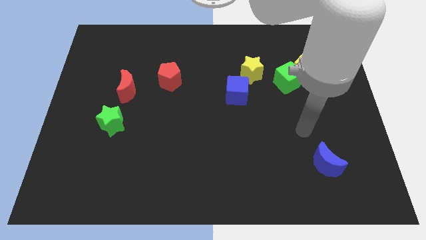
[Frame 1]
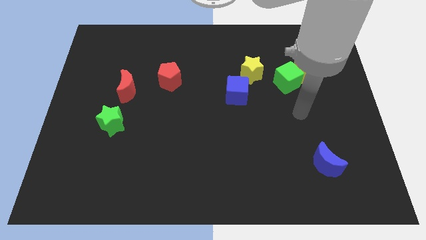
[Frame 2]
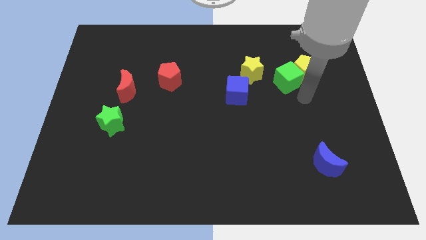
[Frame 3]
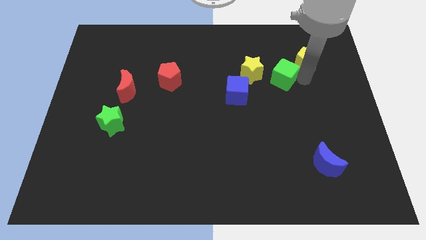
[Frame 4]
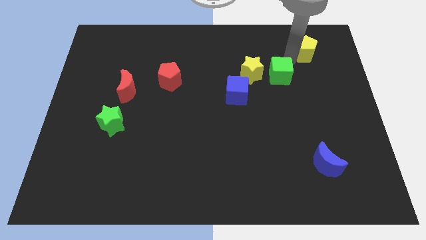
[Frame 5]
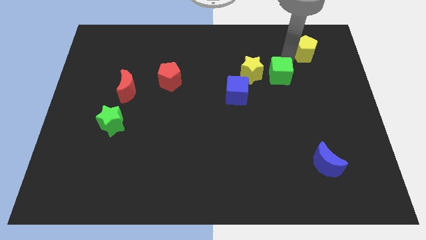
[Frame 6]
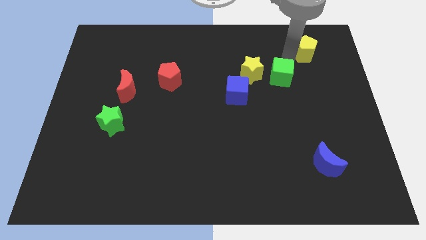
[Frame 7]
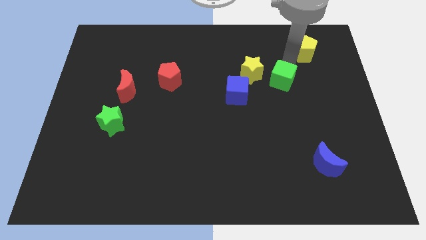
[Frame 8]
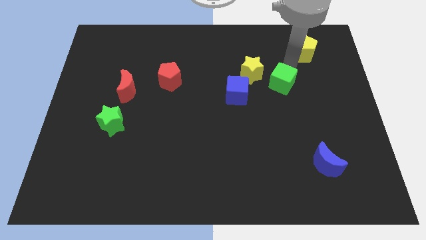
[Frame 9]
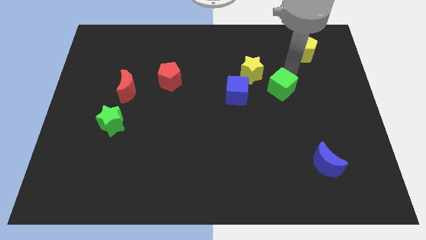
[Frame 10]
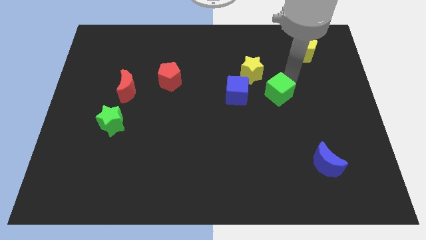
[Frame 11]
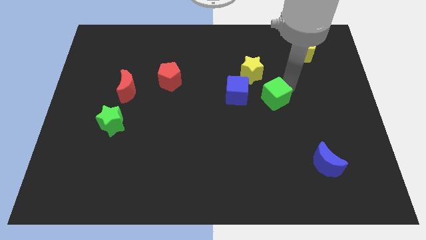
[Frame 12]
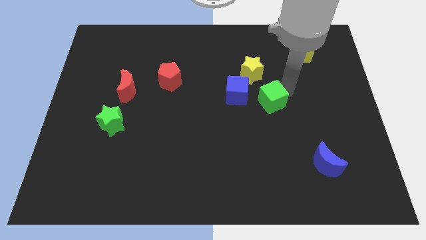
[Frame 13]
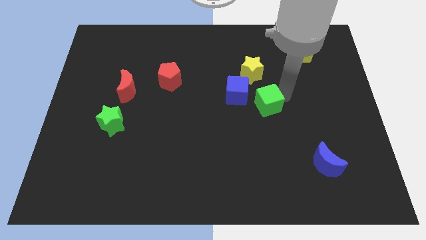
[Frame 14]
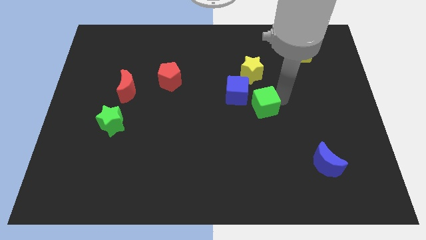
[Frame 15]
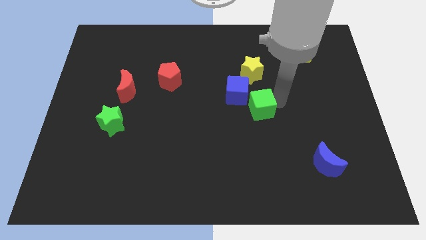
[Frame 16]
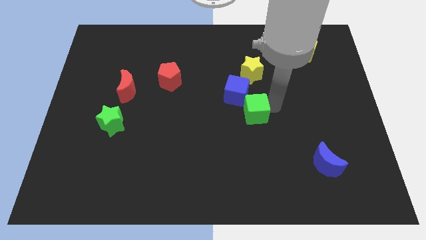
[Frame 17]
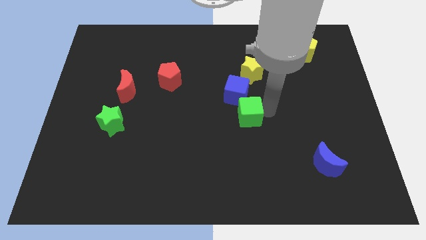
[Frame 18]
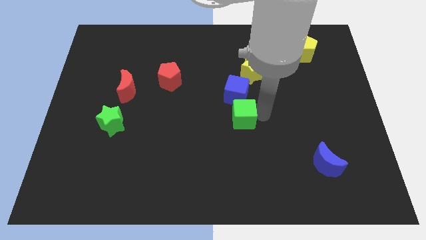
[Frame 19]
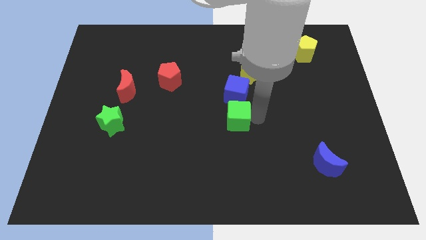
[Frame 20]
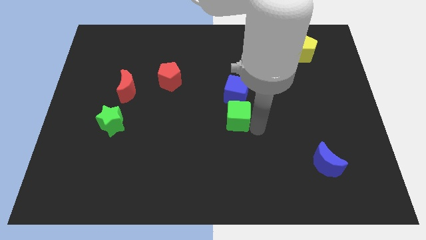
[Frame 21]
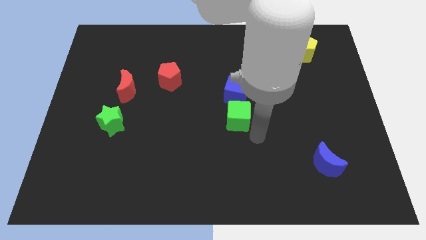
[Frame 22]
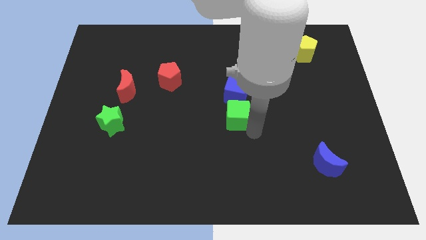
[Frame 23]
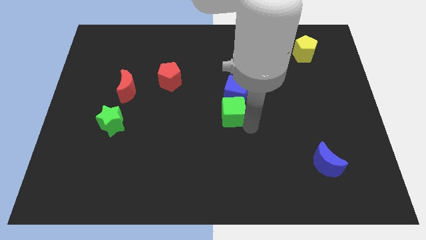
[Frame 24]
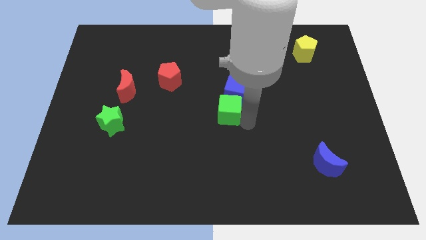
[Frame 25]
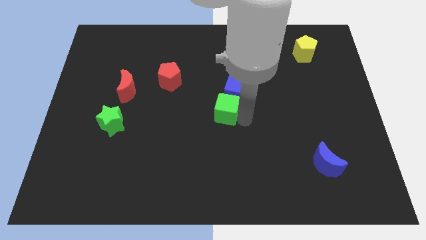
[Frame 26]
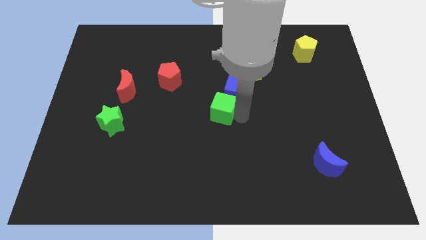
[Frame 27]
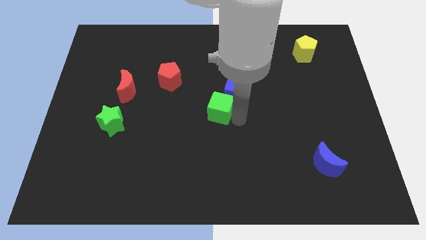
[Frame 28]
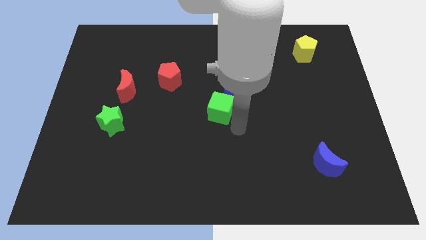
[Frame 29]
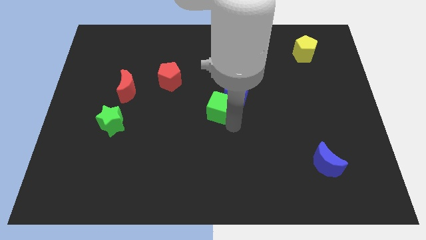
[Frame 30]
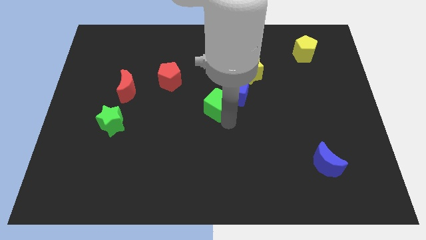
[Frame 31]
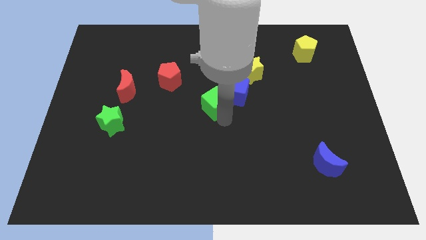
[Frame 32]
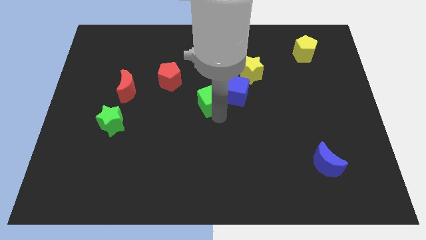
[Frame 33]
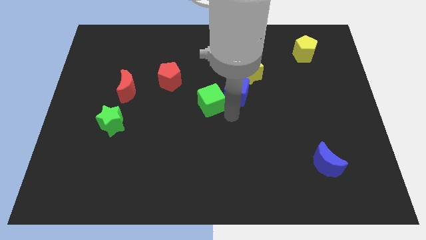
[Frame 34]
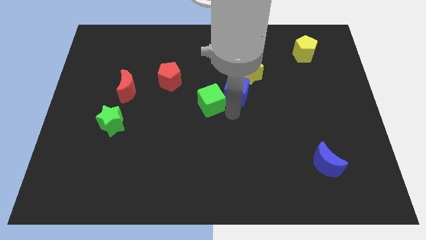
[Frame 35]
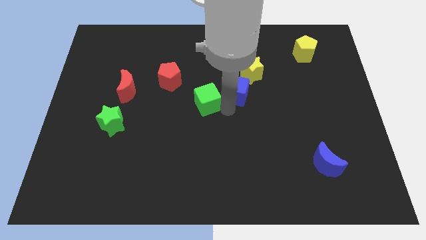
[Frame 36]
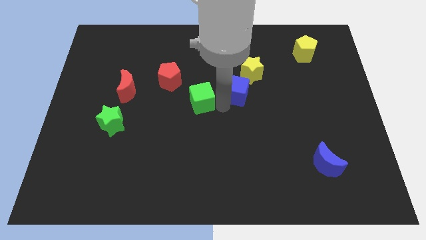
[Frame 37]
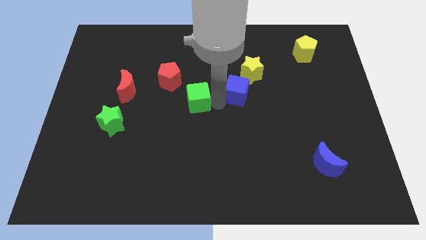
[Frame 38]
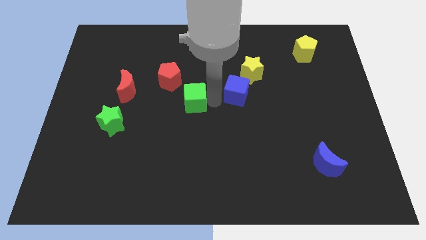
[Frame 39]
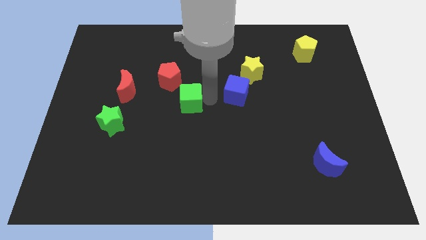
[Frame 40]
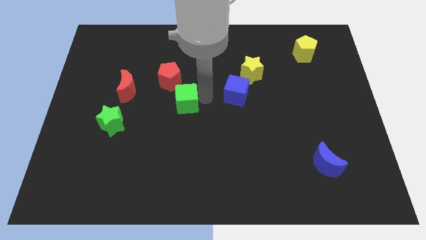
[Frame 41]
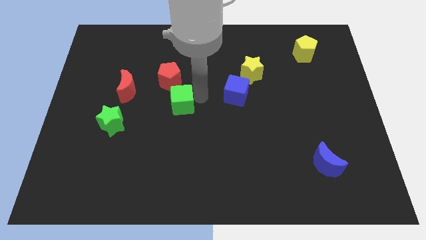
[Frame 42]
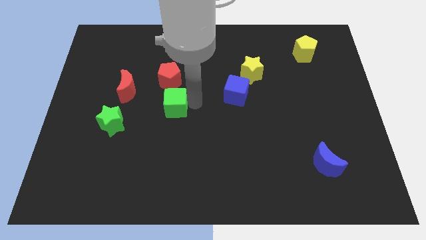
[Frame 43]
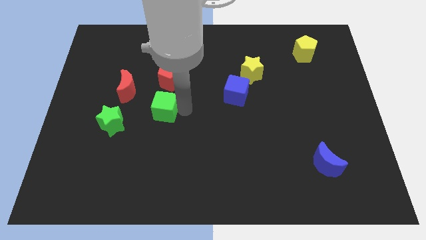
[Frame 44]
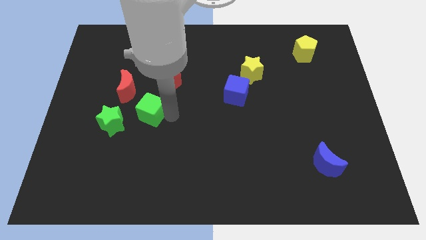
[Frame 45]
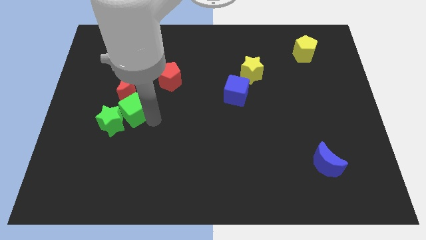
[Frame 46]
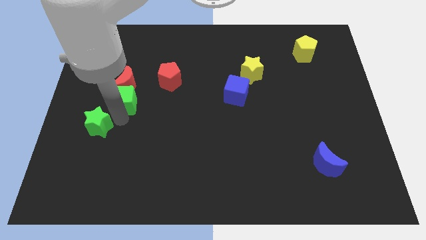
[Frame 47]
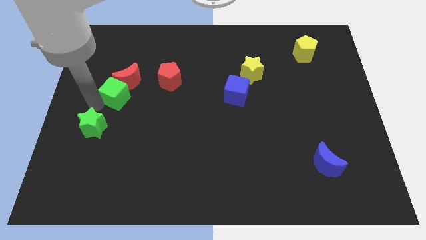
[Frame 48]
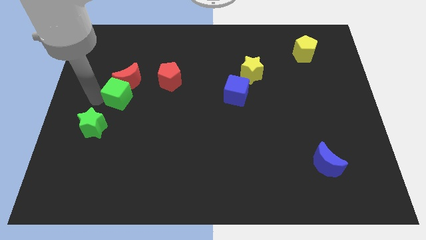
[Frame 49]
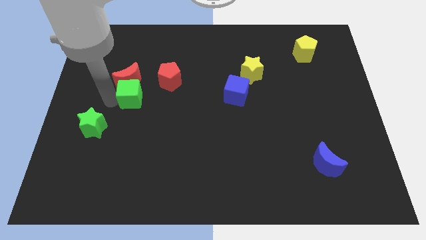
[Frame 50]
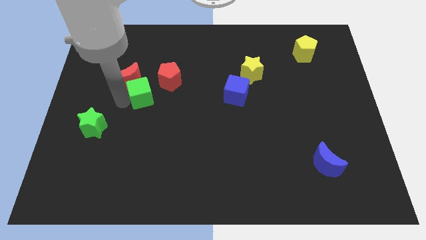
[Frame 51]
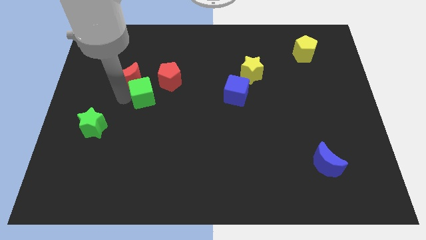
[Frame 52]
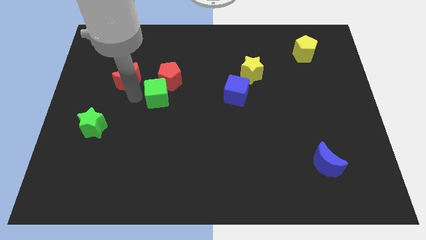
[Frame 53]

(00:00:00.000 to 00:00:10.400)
slide the green cube towards the red pentagon

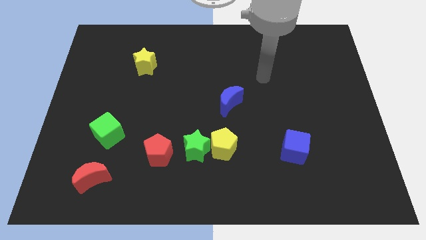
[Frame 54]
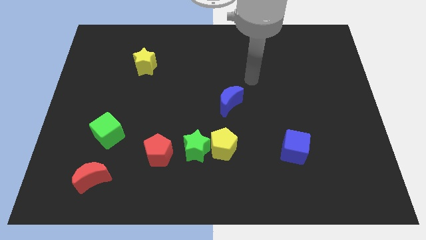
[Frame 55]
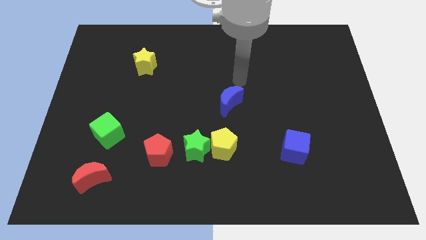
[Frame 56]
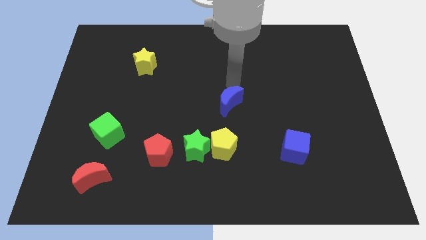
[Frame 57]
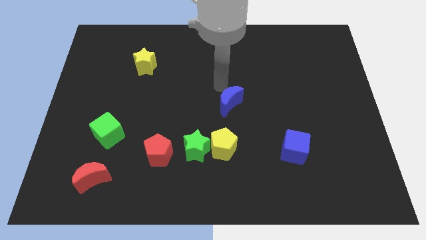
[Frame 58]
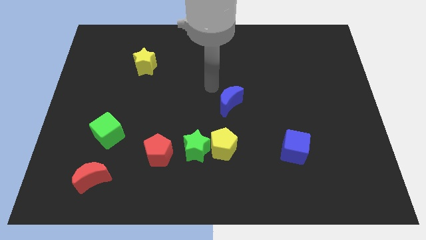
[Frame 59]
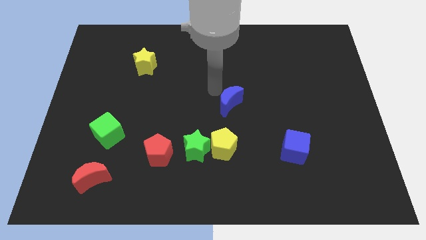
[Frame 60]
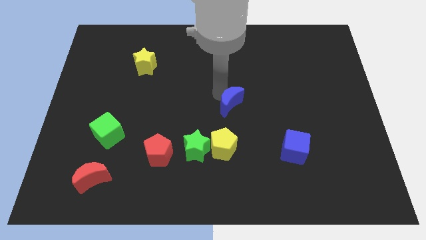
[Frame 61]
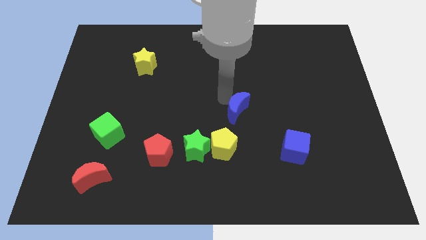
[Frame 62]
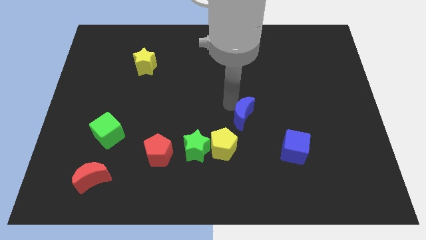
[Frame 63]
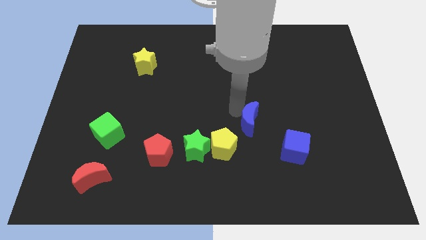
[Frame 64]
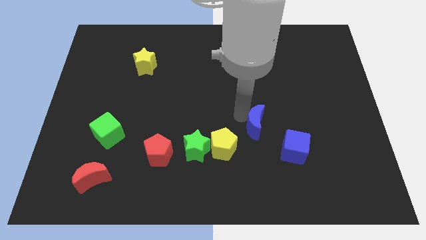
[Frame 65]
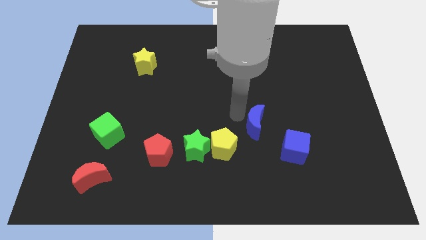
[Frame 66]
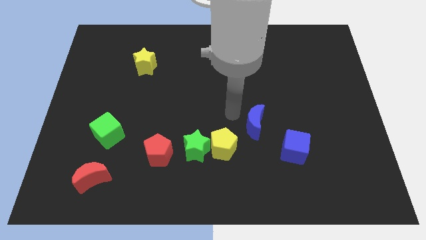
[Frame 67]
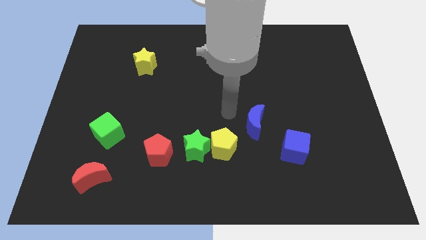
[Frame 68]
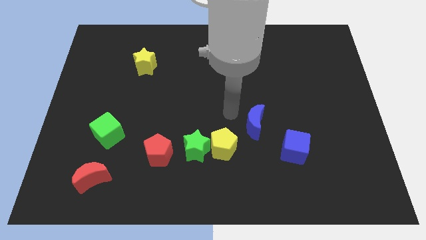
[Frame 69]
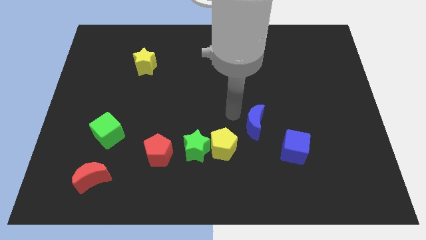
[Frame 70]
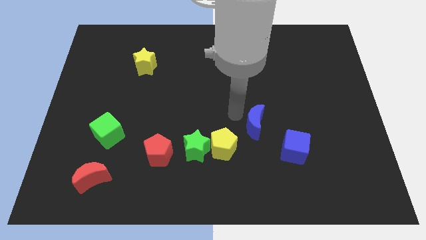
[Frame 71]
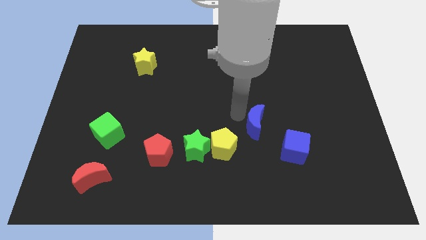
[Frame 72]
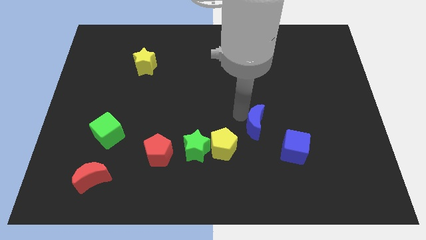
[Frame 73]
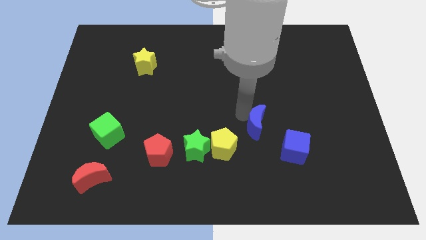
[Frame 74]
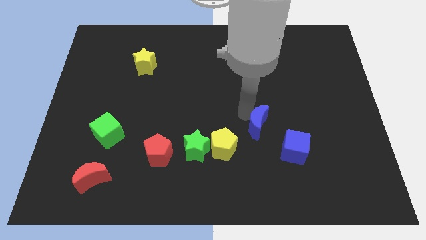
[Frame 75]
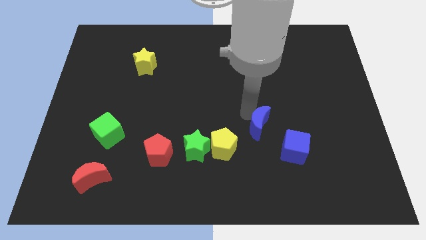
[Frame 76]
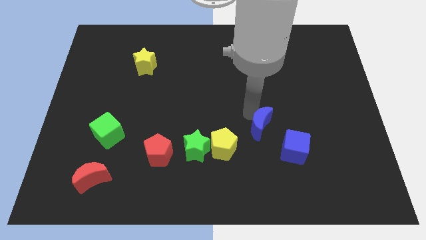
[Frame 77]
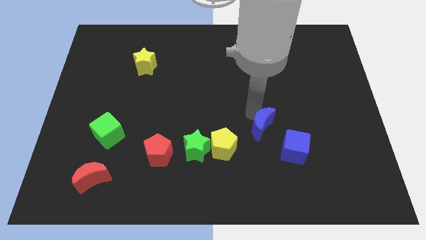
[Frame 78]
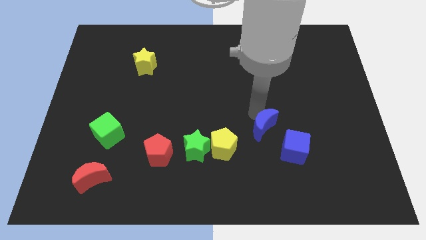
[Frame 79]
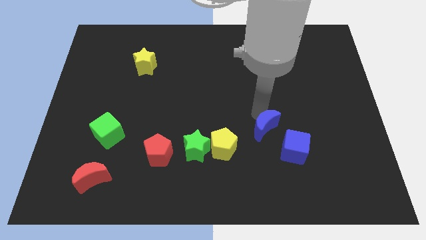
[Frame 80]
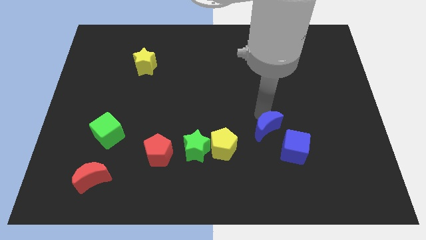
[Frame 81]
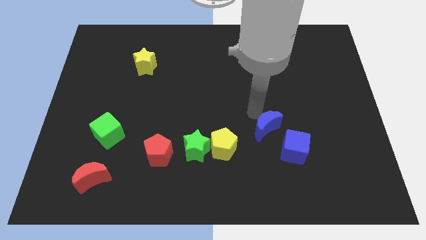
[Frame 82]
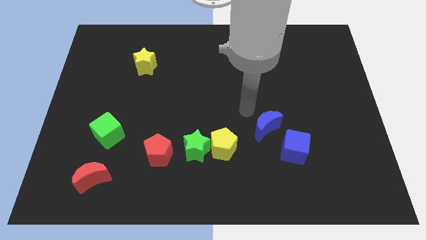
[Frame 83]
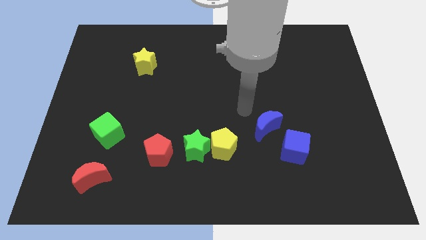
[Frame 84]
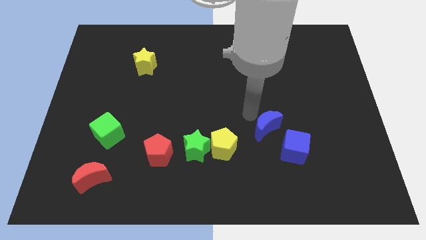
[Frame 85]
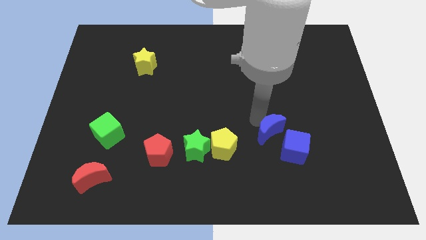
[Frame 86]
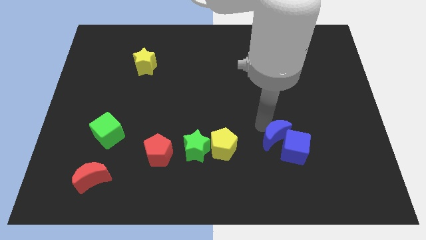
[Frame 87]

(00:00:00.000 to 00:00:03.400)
slide the blue moon close to the blue cube
